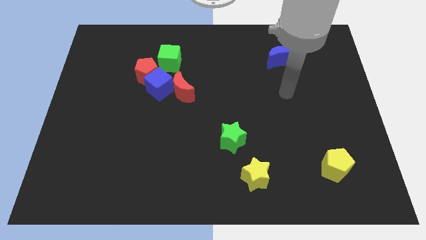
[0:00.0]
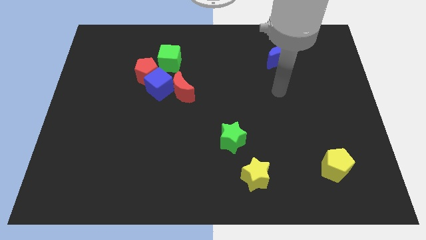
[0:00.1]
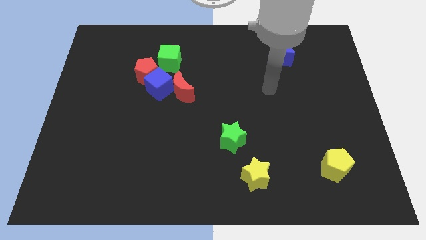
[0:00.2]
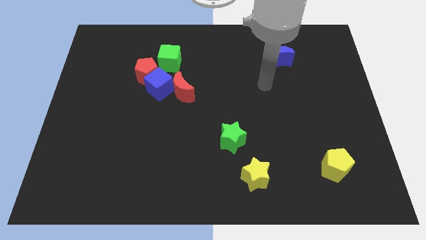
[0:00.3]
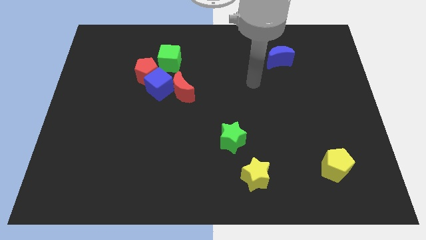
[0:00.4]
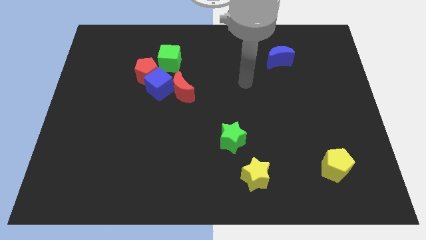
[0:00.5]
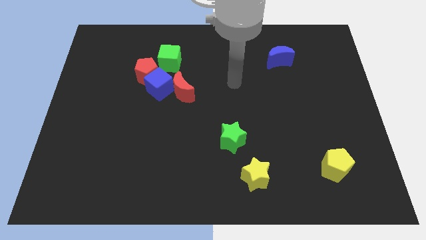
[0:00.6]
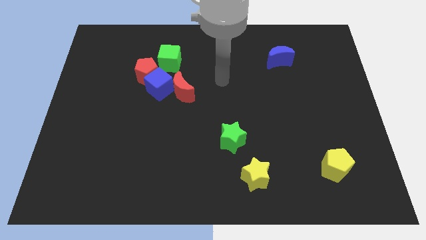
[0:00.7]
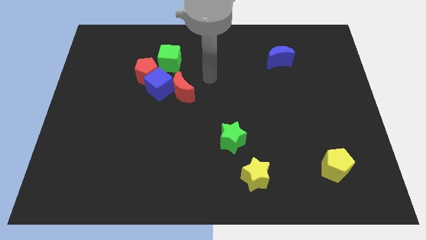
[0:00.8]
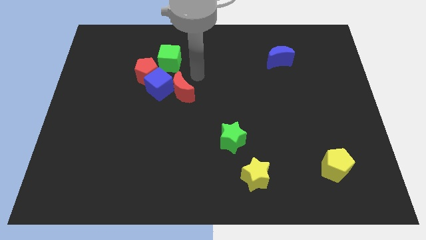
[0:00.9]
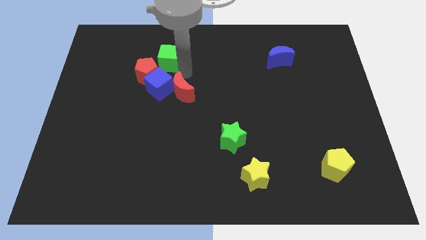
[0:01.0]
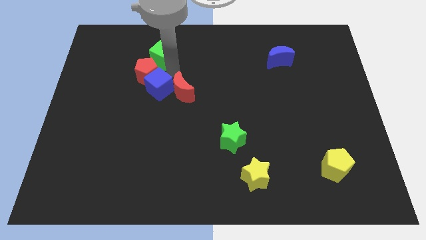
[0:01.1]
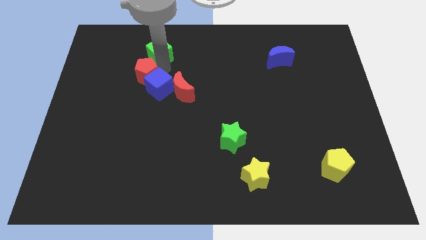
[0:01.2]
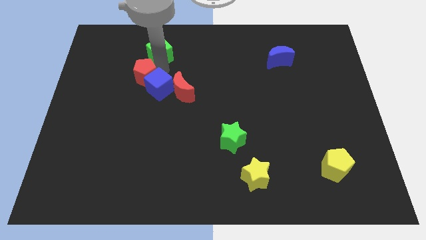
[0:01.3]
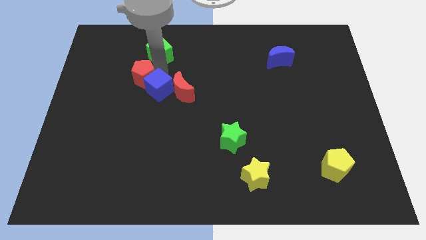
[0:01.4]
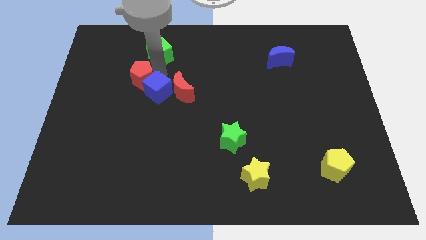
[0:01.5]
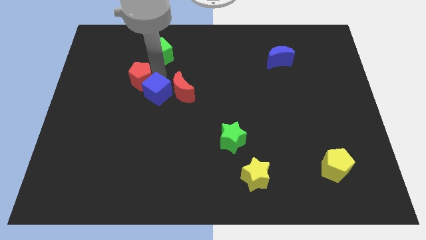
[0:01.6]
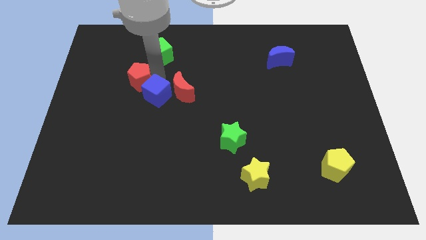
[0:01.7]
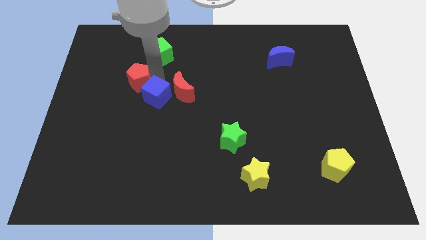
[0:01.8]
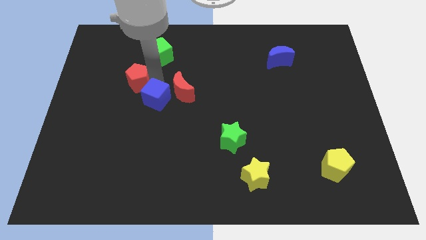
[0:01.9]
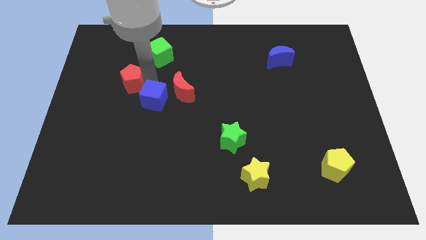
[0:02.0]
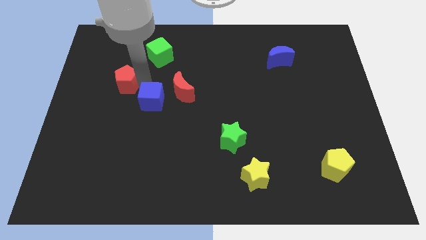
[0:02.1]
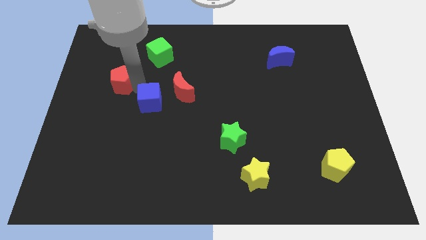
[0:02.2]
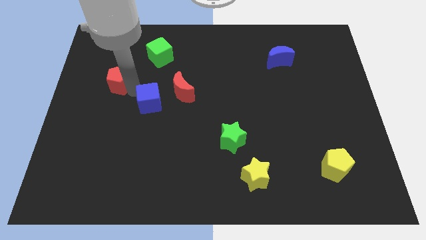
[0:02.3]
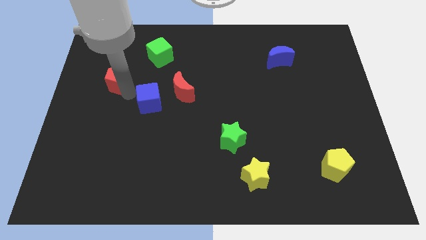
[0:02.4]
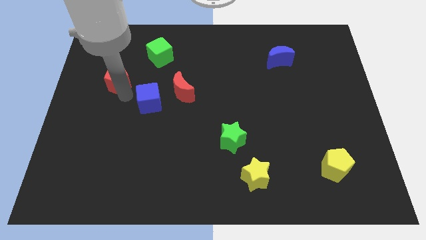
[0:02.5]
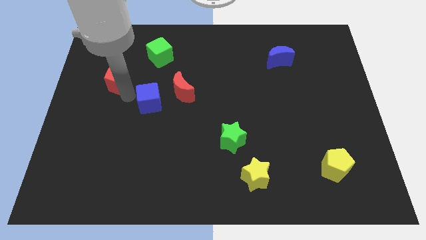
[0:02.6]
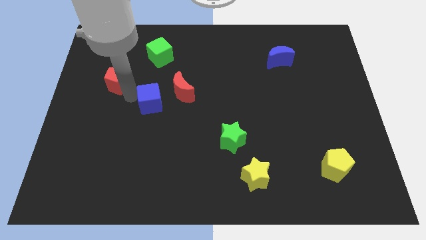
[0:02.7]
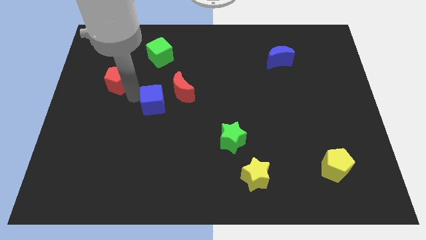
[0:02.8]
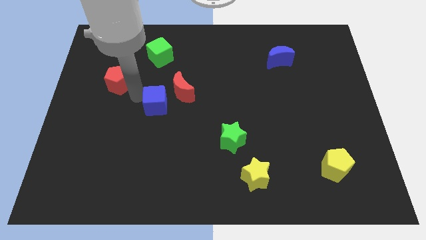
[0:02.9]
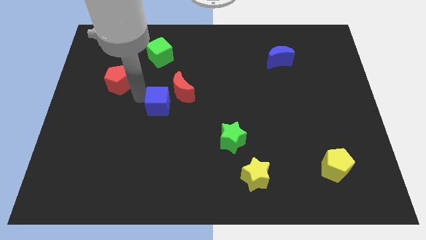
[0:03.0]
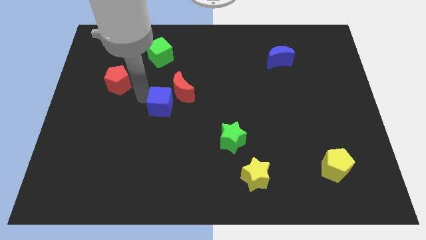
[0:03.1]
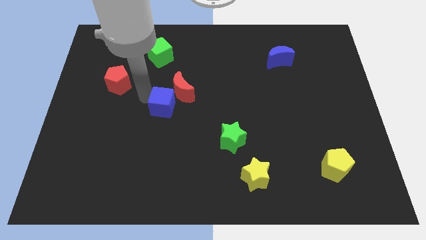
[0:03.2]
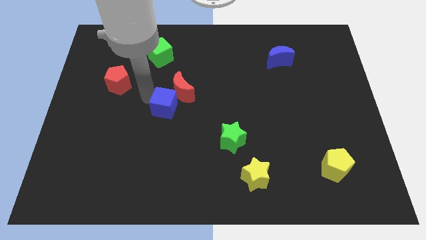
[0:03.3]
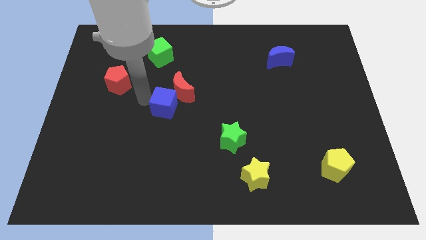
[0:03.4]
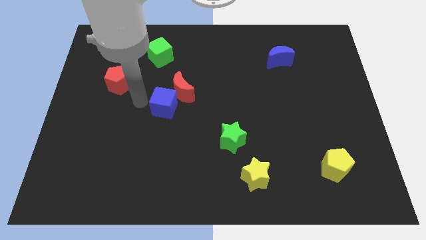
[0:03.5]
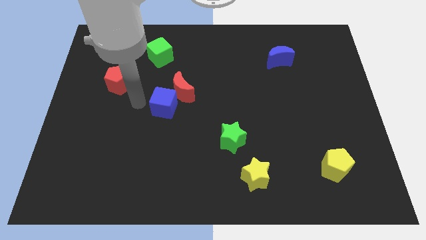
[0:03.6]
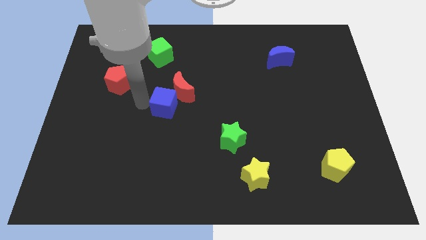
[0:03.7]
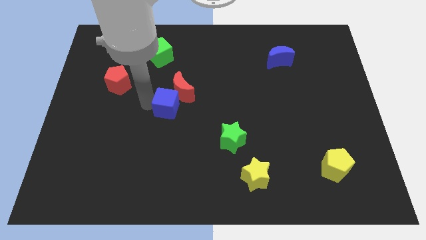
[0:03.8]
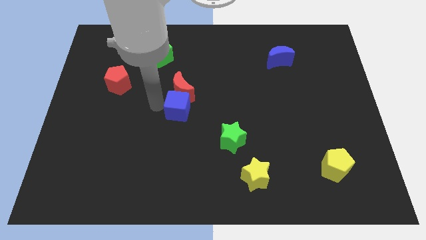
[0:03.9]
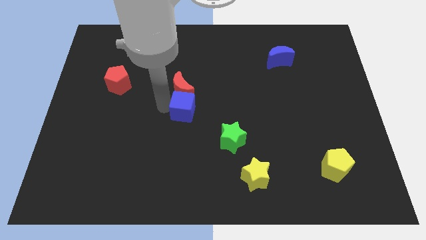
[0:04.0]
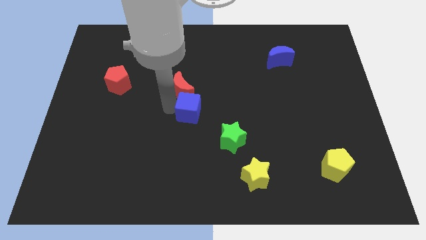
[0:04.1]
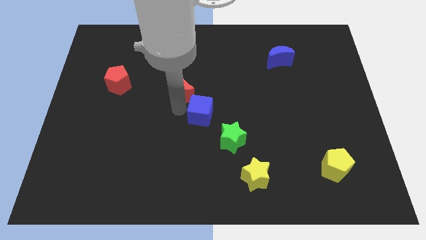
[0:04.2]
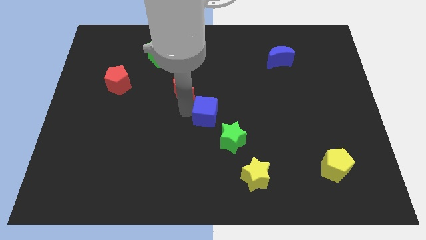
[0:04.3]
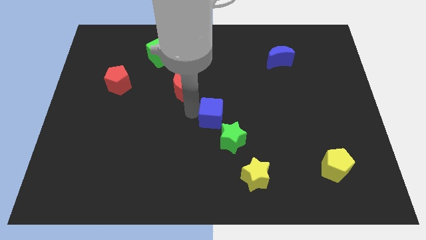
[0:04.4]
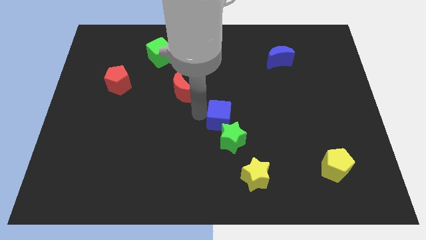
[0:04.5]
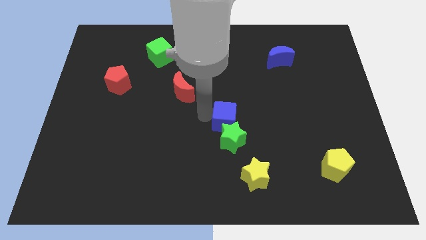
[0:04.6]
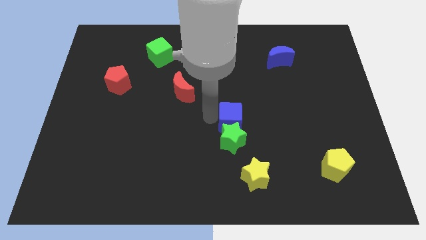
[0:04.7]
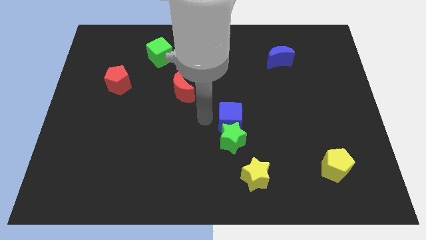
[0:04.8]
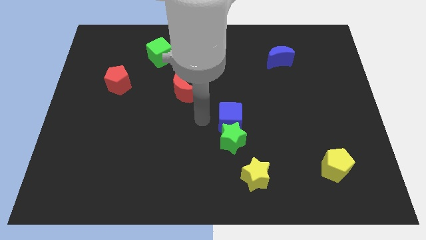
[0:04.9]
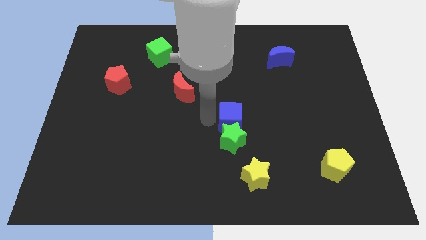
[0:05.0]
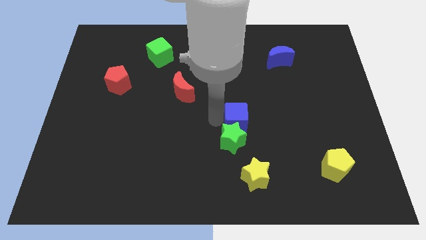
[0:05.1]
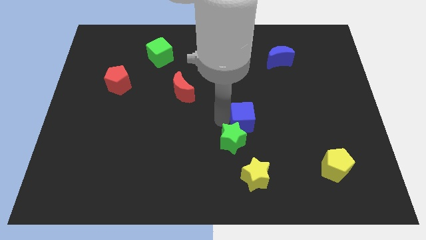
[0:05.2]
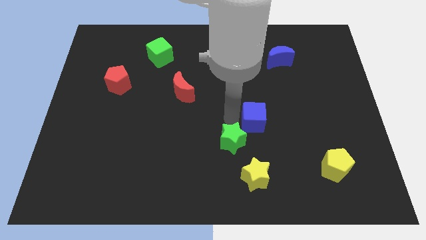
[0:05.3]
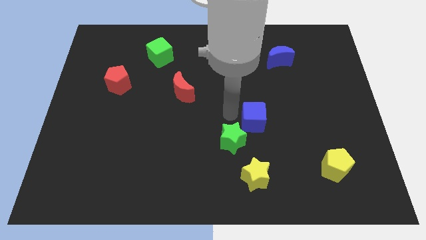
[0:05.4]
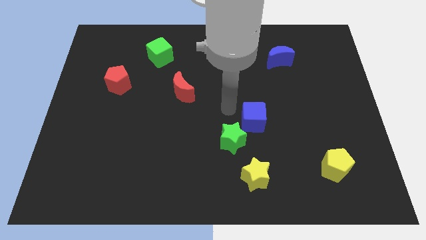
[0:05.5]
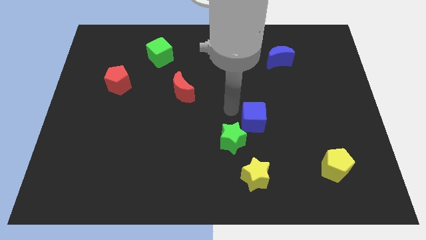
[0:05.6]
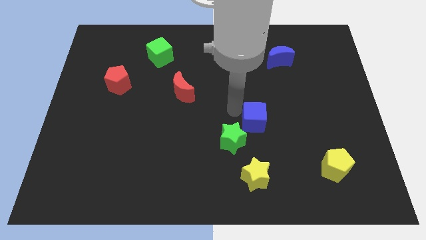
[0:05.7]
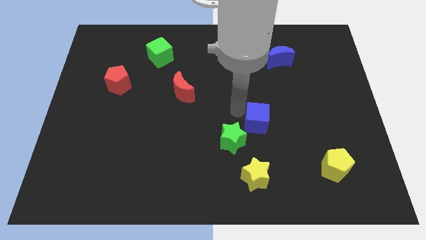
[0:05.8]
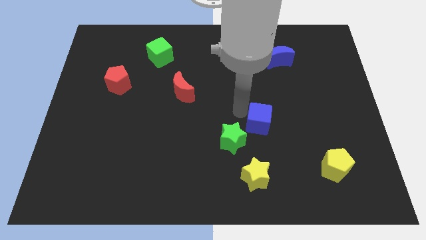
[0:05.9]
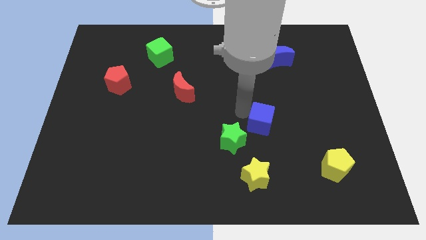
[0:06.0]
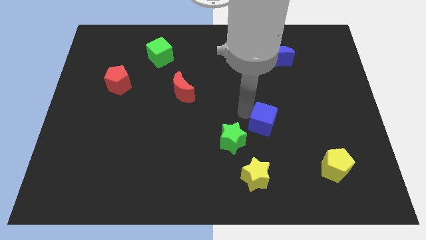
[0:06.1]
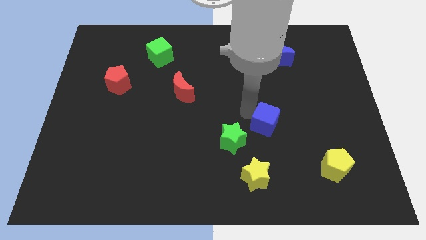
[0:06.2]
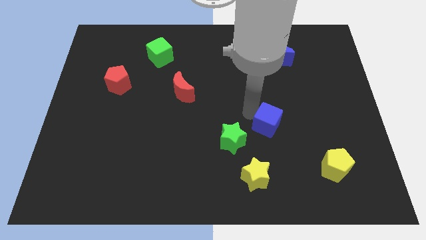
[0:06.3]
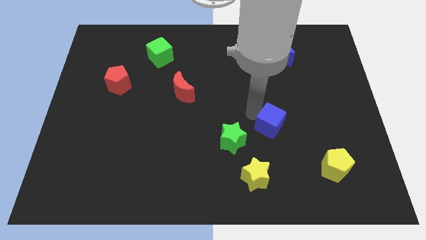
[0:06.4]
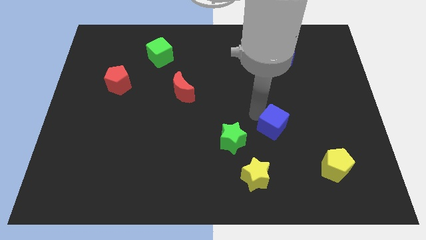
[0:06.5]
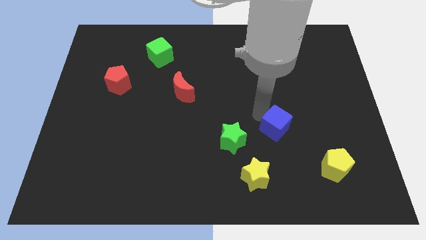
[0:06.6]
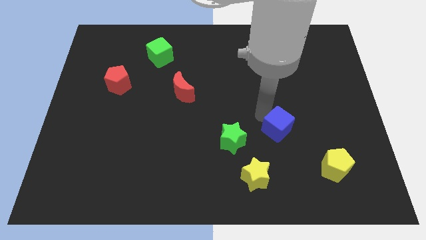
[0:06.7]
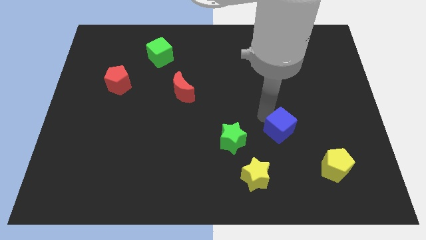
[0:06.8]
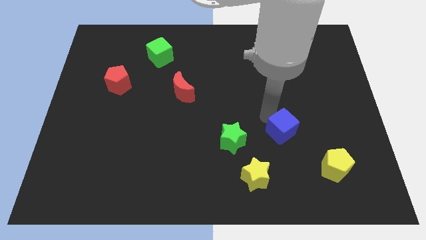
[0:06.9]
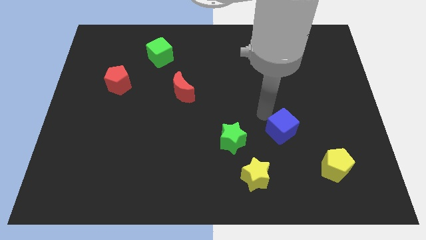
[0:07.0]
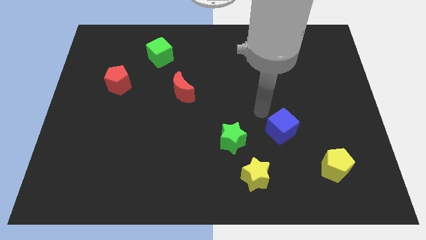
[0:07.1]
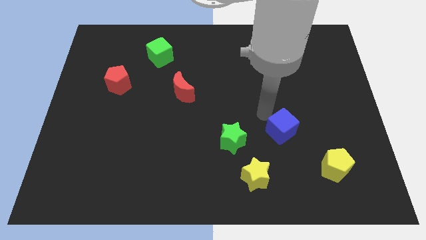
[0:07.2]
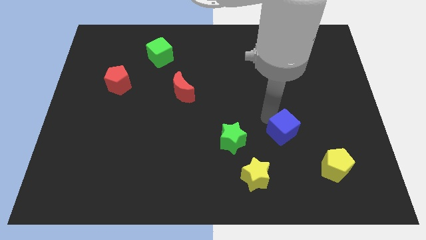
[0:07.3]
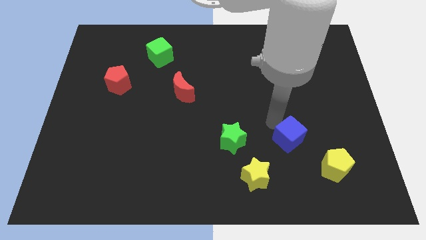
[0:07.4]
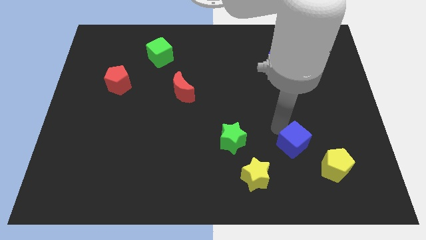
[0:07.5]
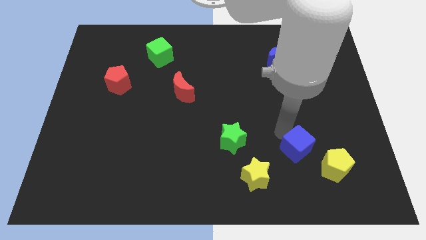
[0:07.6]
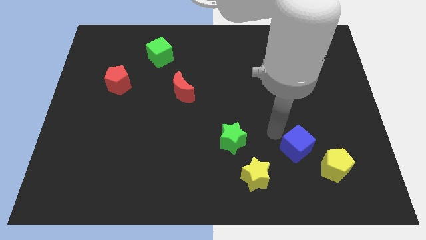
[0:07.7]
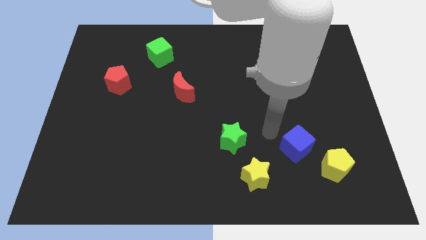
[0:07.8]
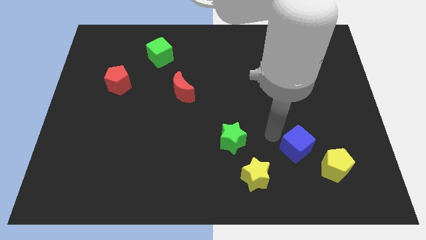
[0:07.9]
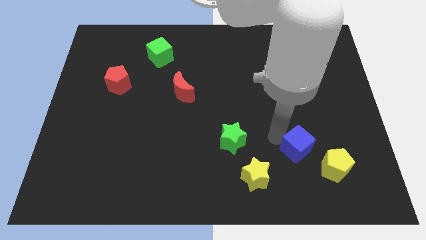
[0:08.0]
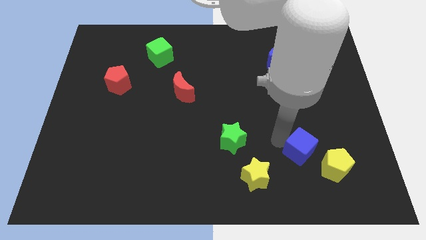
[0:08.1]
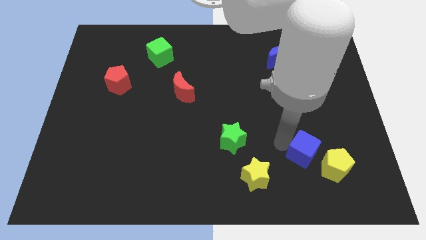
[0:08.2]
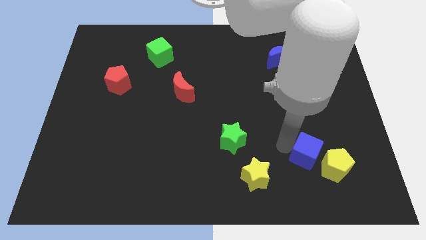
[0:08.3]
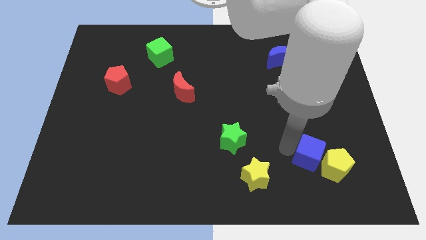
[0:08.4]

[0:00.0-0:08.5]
push the blue cube towards the yellow pentagon
